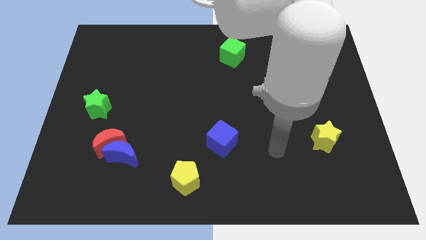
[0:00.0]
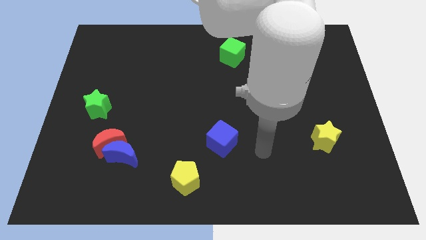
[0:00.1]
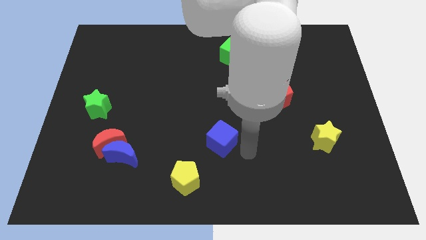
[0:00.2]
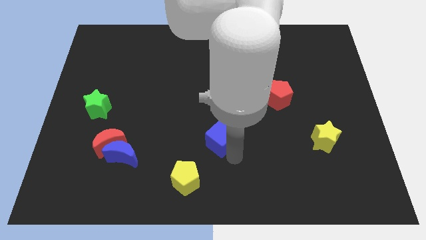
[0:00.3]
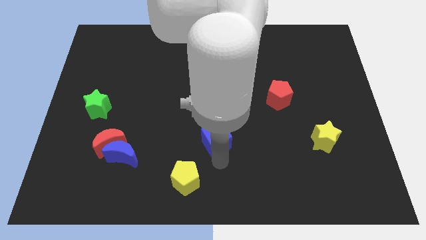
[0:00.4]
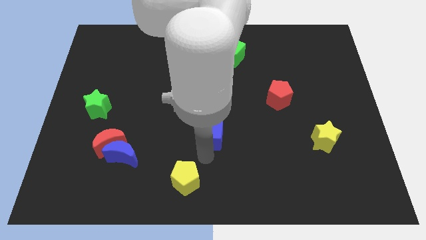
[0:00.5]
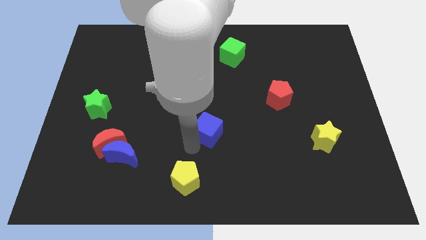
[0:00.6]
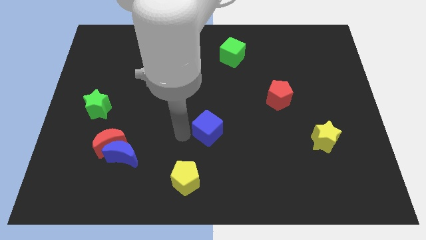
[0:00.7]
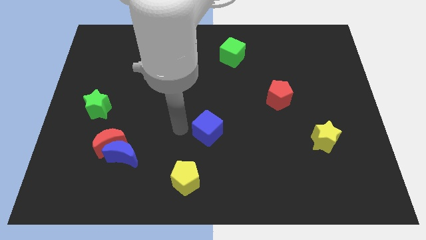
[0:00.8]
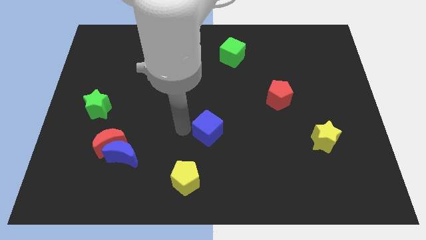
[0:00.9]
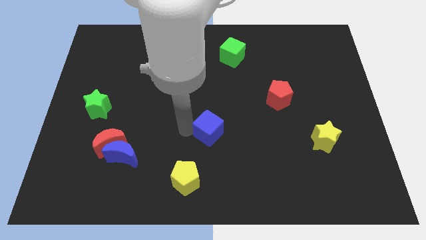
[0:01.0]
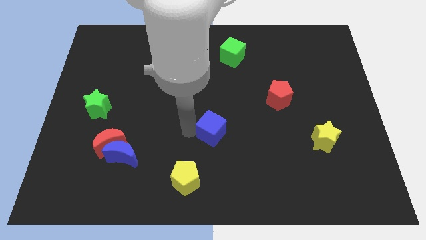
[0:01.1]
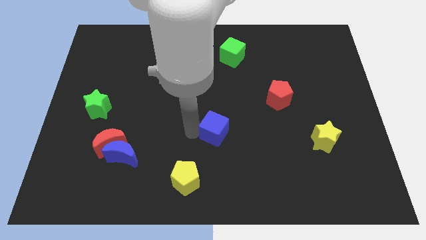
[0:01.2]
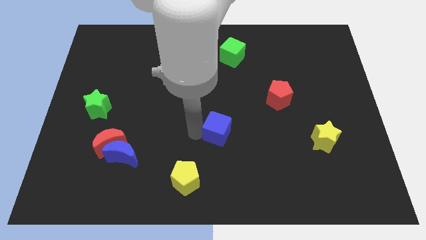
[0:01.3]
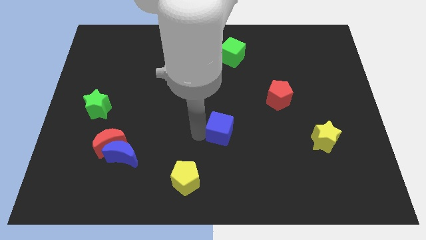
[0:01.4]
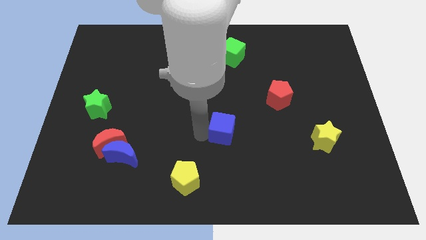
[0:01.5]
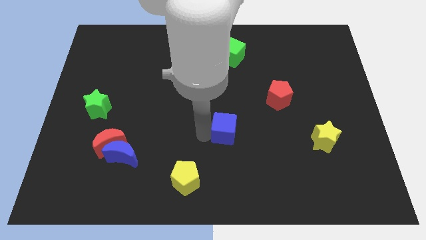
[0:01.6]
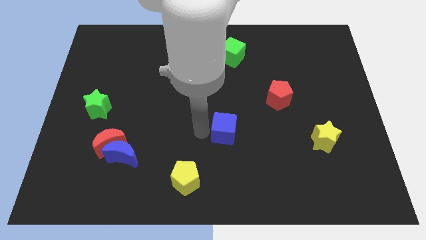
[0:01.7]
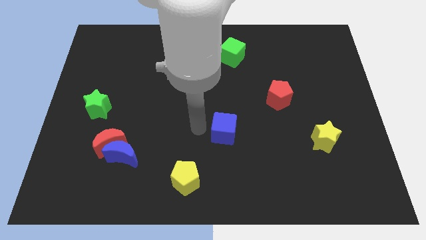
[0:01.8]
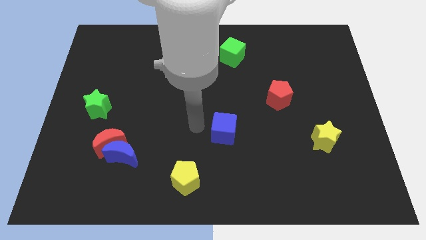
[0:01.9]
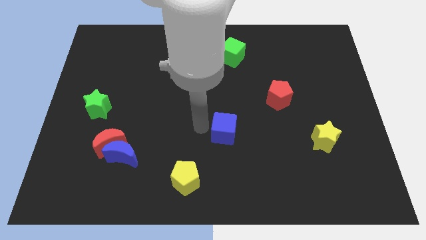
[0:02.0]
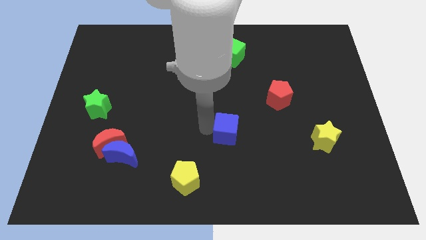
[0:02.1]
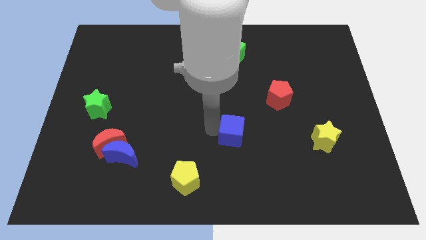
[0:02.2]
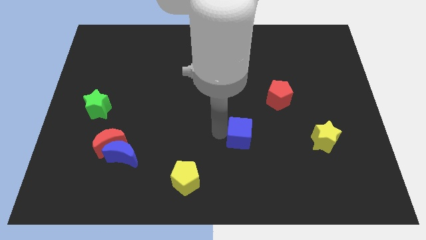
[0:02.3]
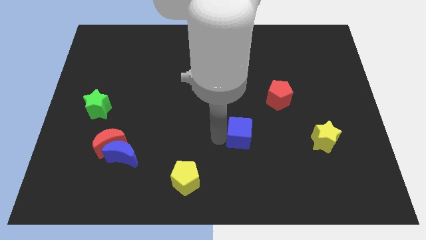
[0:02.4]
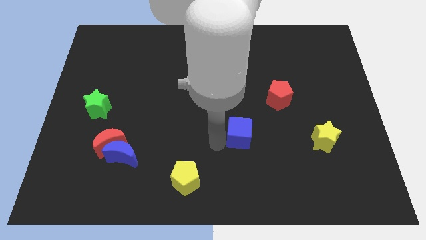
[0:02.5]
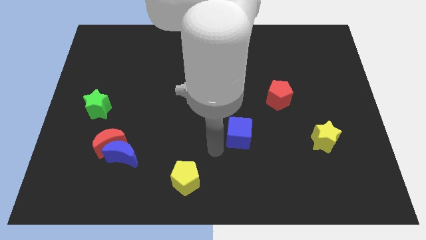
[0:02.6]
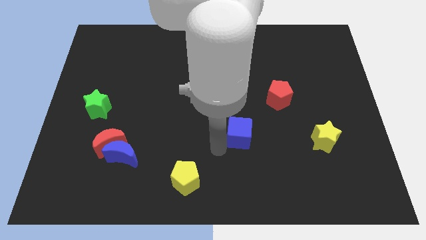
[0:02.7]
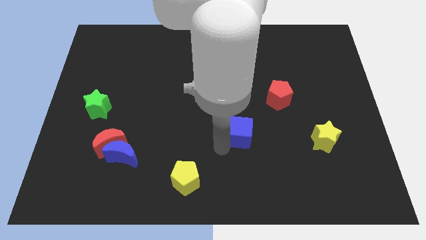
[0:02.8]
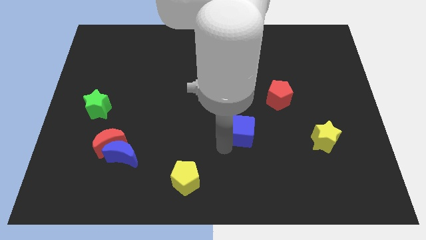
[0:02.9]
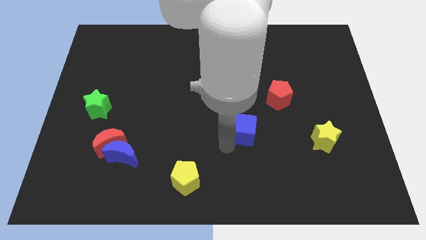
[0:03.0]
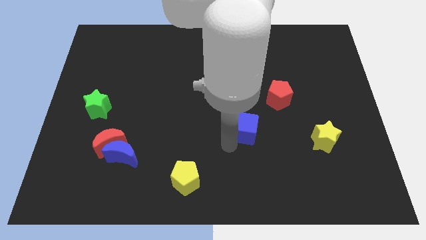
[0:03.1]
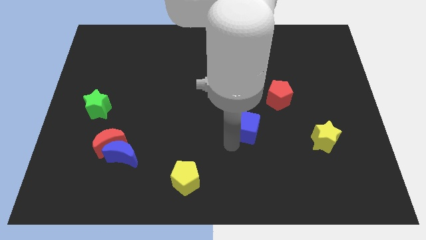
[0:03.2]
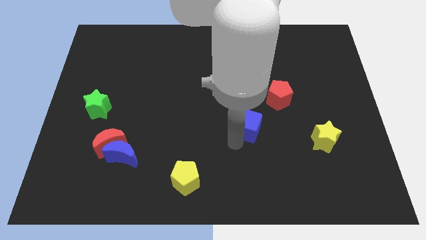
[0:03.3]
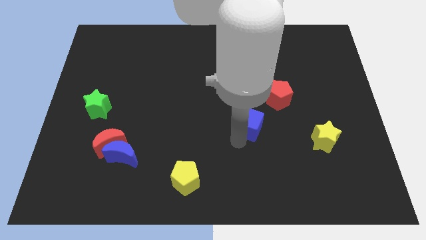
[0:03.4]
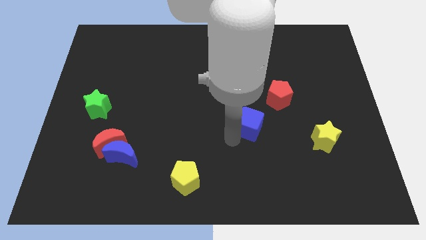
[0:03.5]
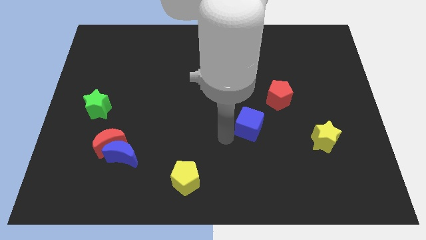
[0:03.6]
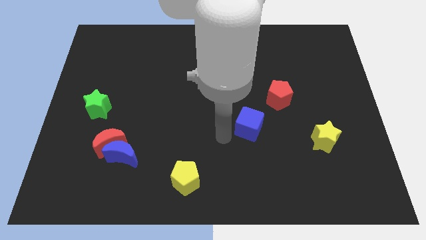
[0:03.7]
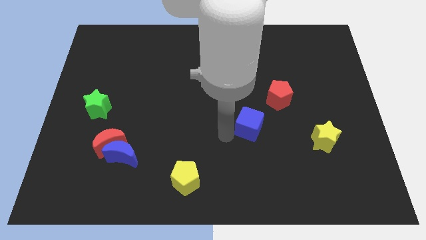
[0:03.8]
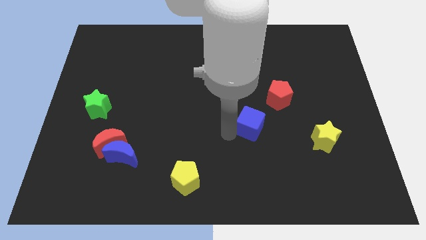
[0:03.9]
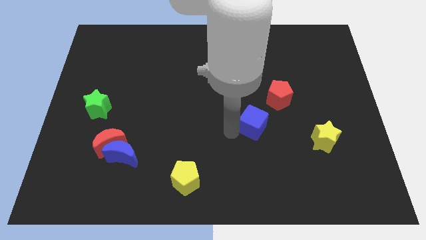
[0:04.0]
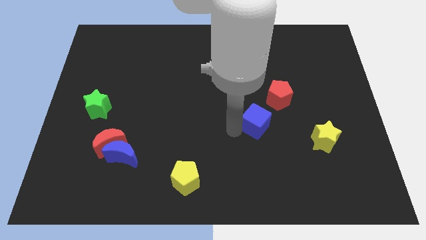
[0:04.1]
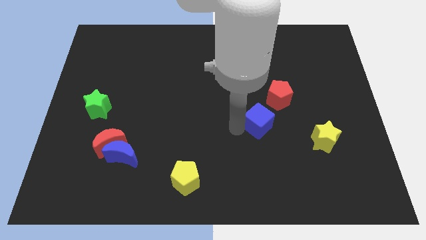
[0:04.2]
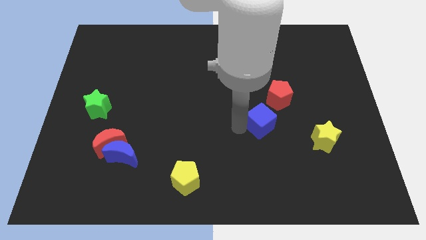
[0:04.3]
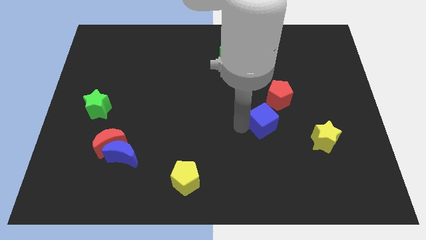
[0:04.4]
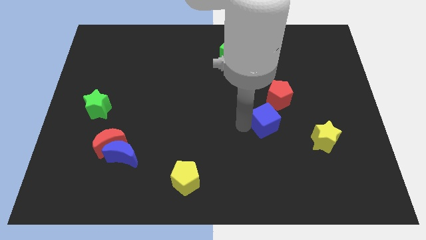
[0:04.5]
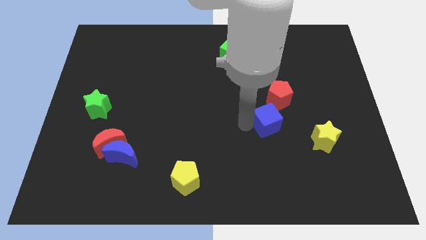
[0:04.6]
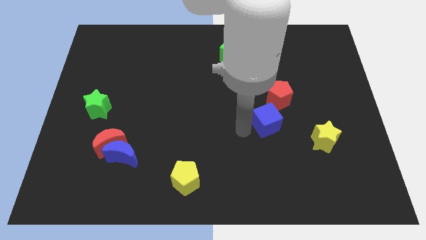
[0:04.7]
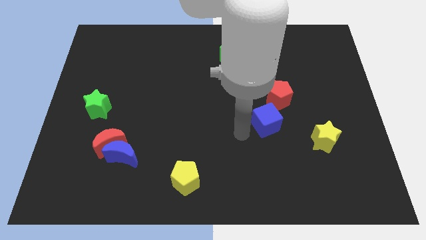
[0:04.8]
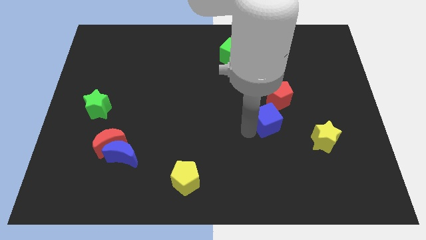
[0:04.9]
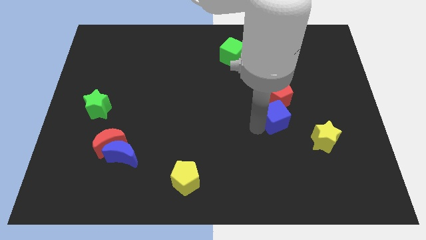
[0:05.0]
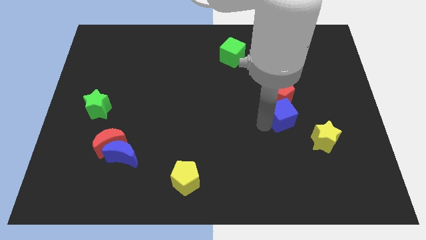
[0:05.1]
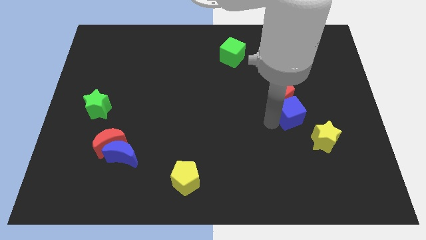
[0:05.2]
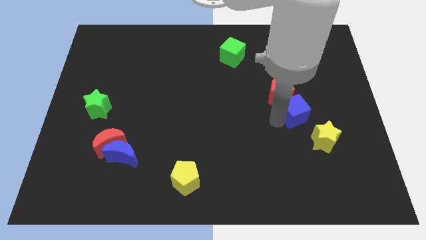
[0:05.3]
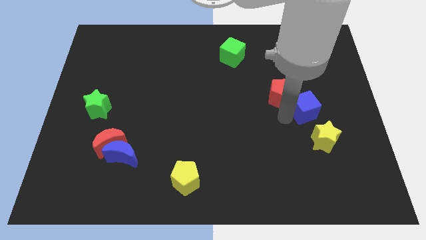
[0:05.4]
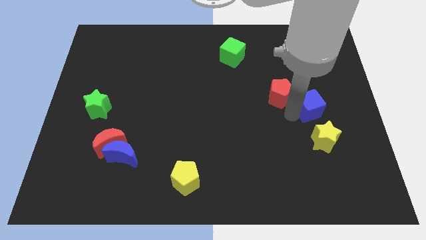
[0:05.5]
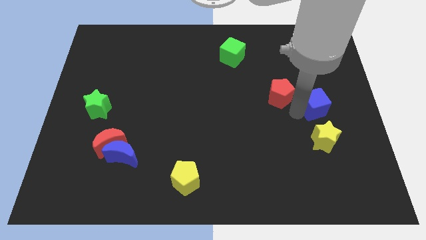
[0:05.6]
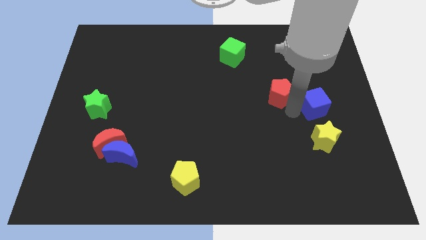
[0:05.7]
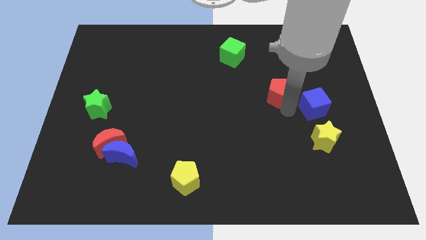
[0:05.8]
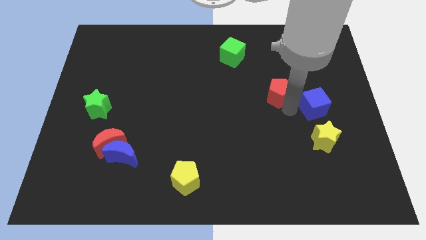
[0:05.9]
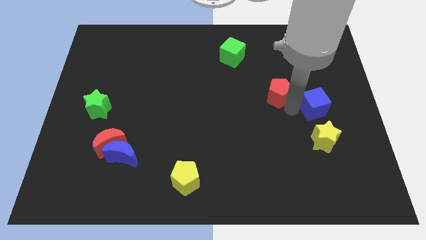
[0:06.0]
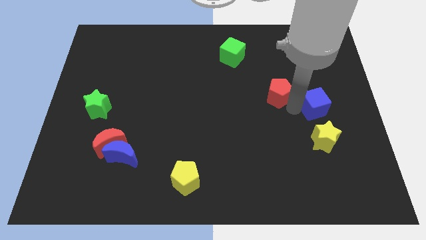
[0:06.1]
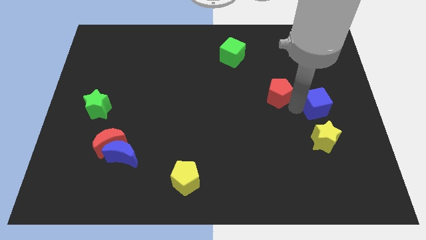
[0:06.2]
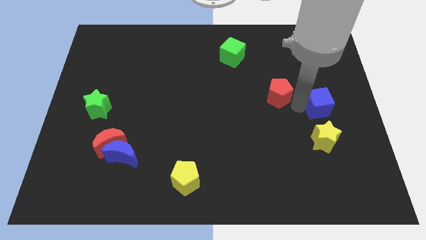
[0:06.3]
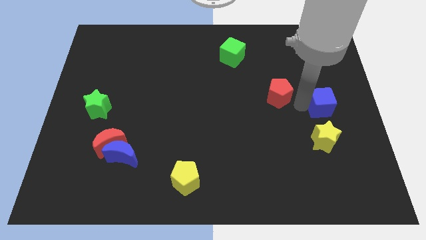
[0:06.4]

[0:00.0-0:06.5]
put the blue cube to the right side of the board
